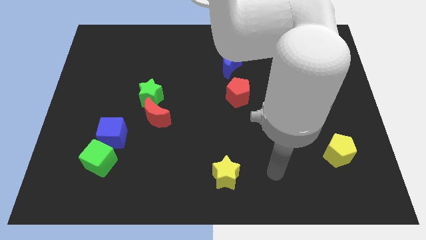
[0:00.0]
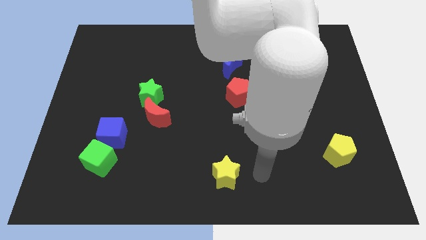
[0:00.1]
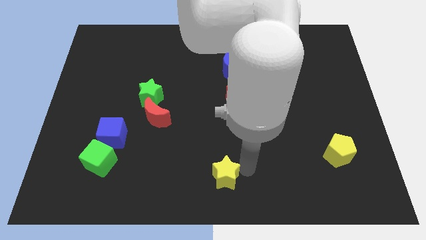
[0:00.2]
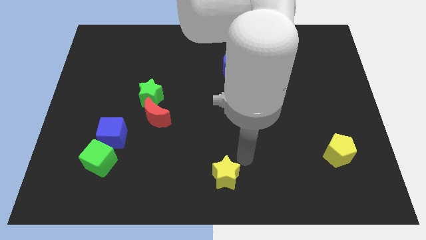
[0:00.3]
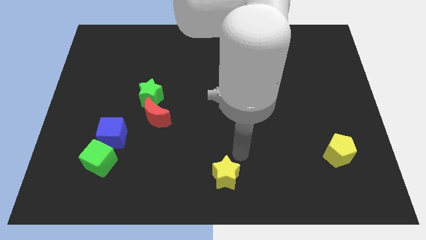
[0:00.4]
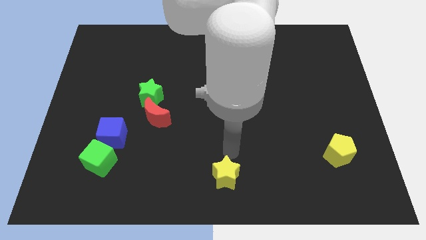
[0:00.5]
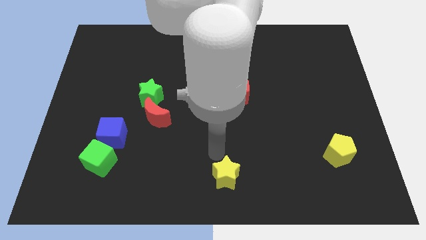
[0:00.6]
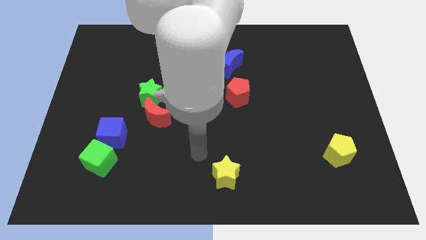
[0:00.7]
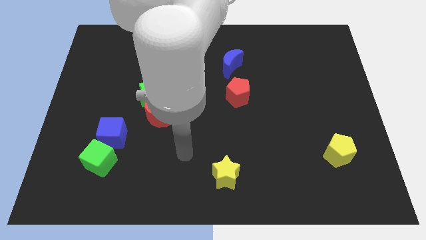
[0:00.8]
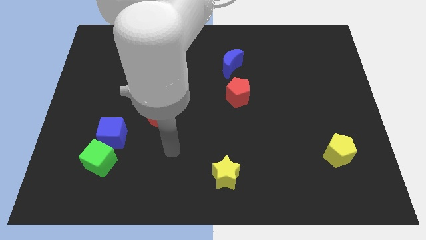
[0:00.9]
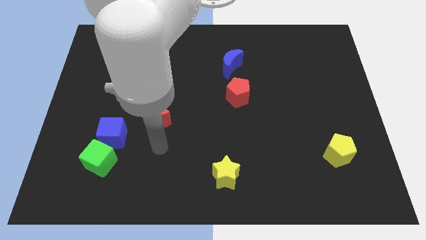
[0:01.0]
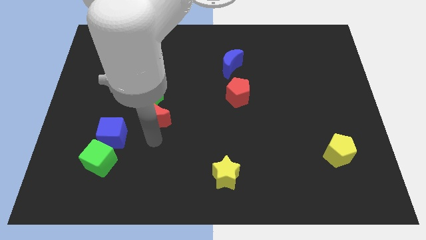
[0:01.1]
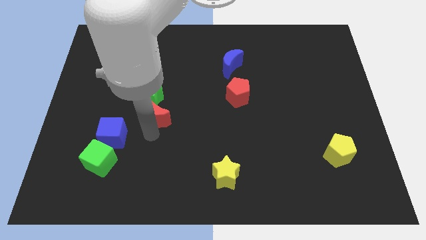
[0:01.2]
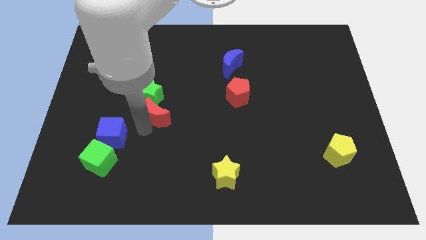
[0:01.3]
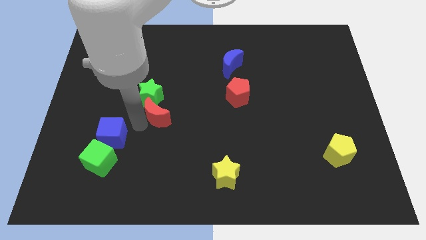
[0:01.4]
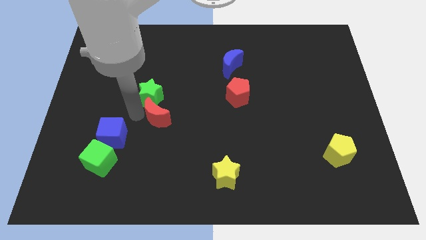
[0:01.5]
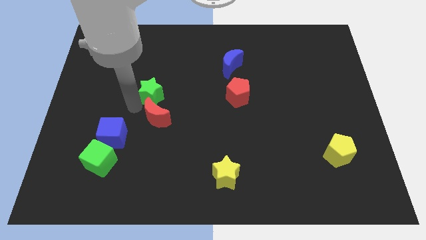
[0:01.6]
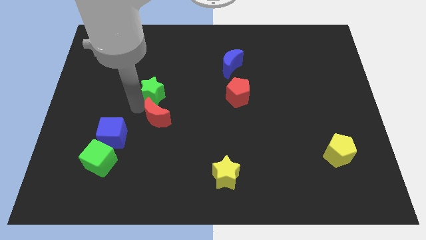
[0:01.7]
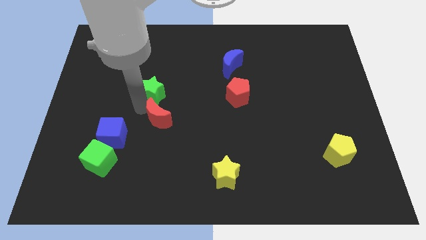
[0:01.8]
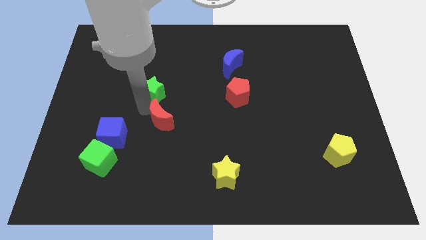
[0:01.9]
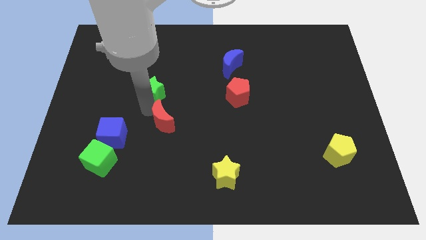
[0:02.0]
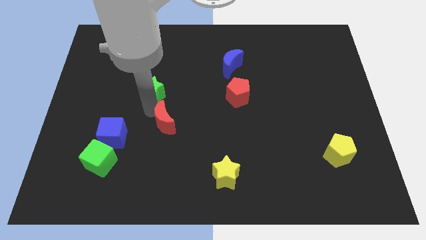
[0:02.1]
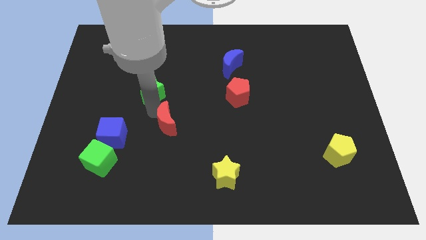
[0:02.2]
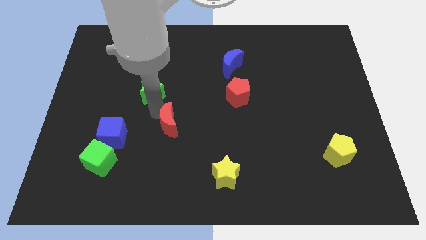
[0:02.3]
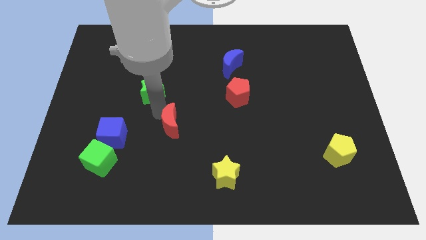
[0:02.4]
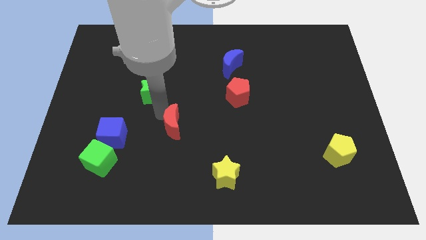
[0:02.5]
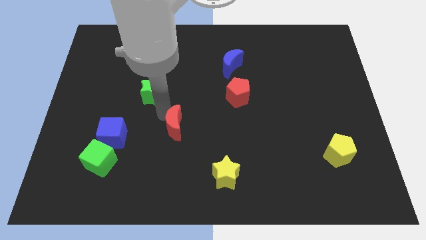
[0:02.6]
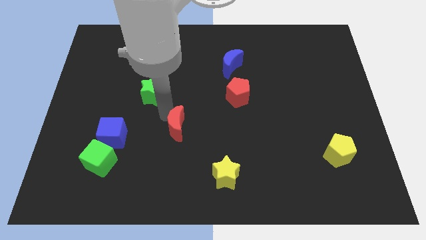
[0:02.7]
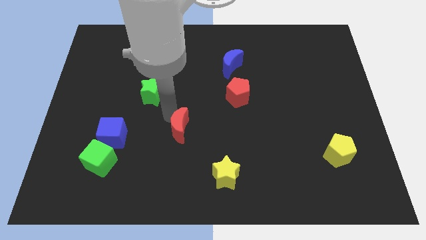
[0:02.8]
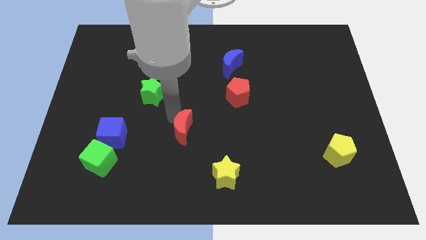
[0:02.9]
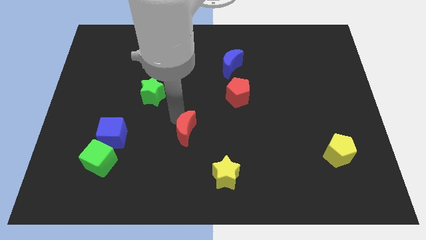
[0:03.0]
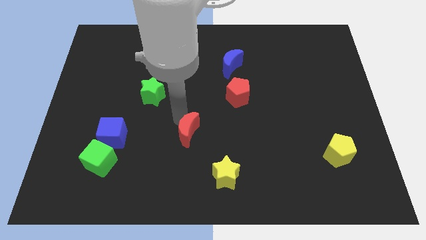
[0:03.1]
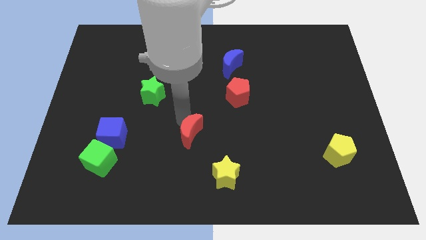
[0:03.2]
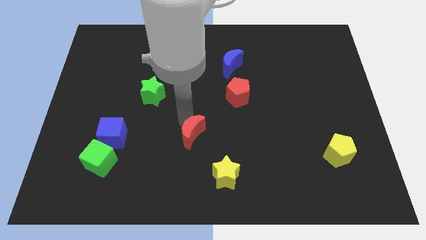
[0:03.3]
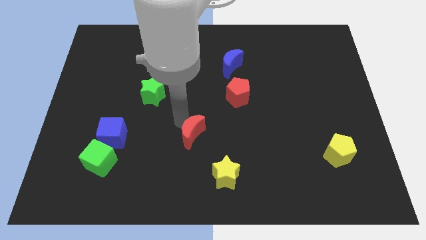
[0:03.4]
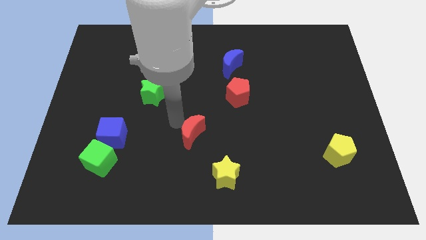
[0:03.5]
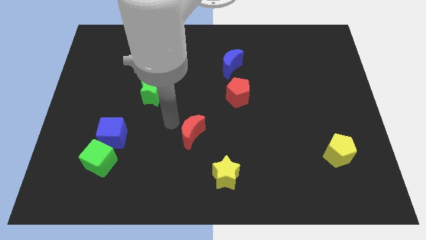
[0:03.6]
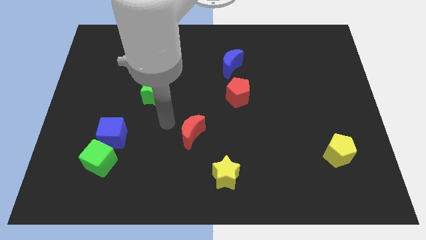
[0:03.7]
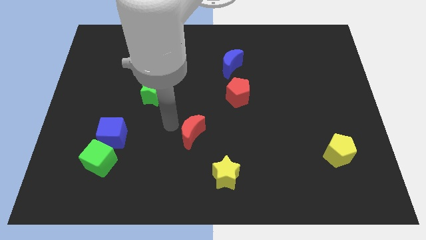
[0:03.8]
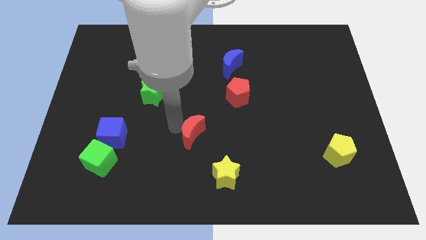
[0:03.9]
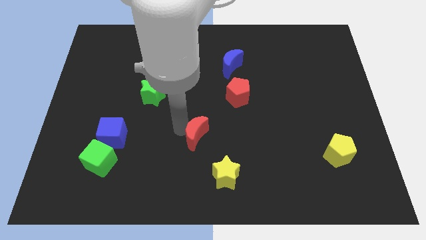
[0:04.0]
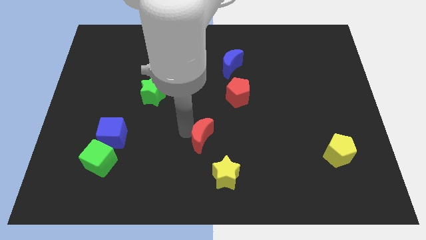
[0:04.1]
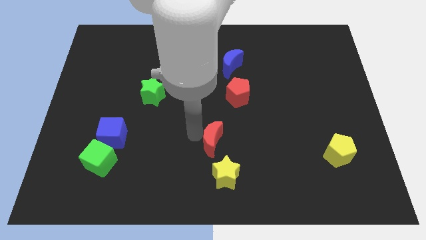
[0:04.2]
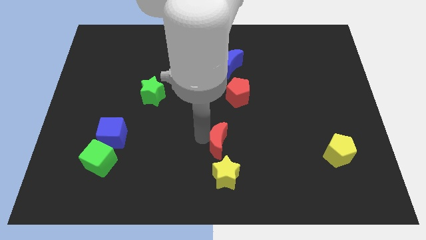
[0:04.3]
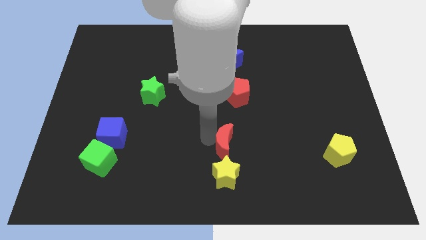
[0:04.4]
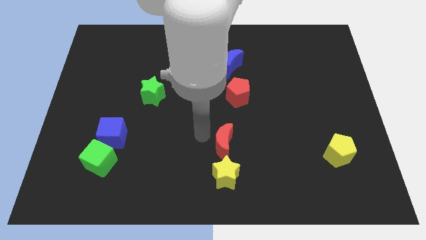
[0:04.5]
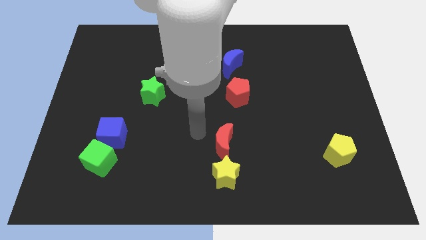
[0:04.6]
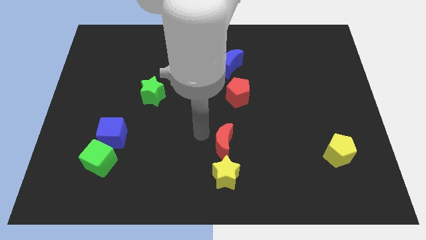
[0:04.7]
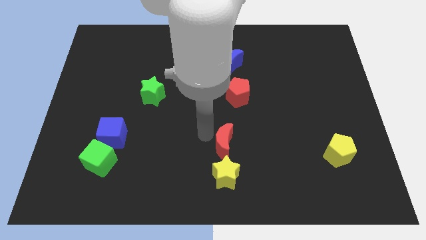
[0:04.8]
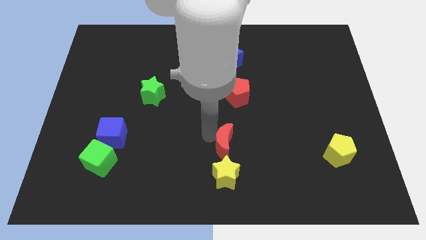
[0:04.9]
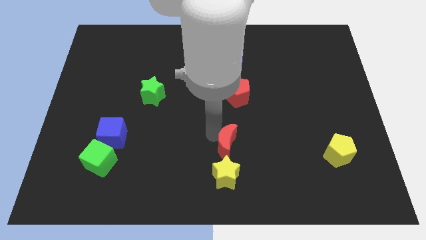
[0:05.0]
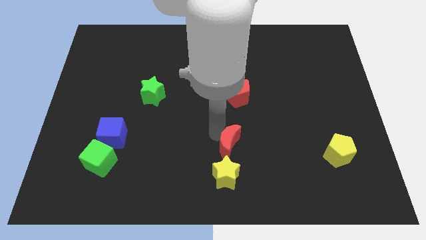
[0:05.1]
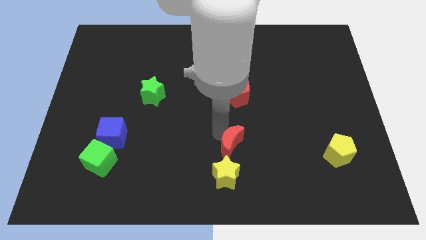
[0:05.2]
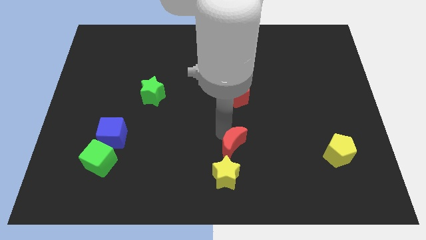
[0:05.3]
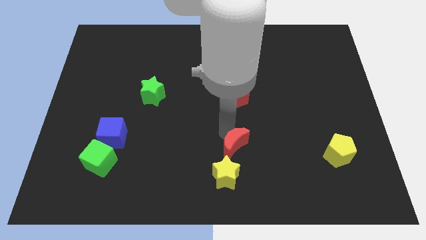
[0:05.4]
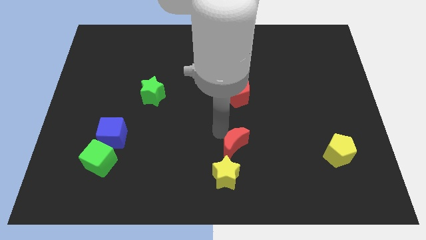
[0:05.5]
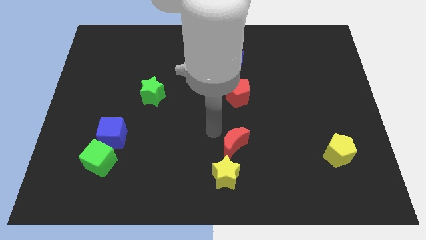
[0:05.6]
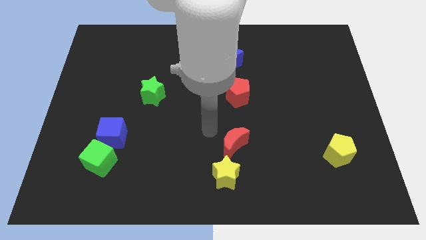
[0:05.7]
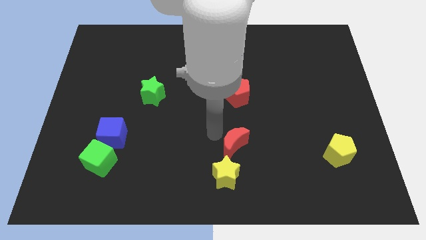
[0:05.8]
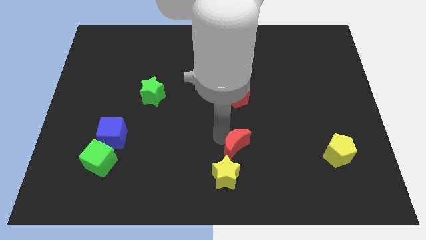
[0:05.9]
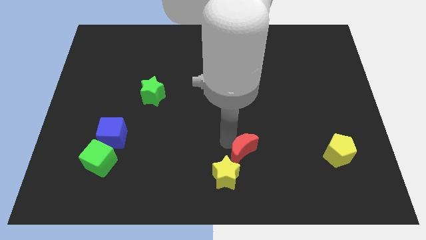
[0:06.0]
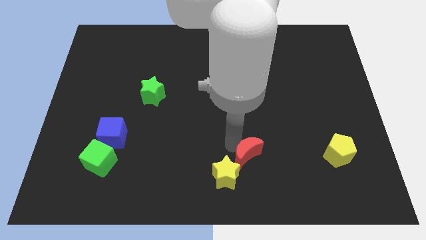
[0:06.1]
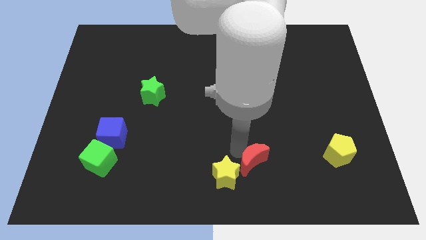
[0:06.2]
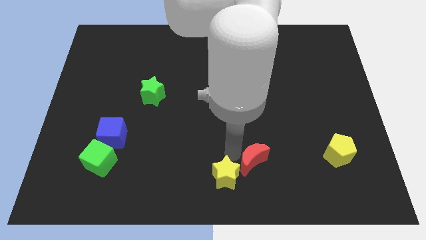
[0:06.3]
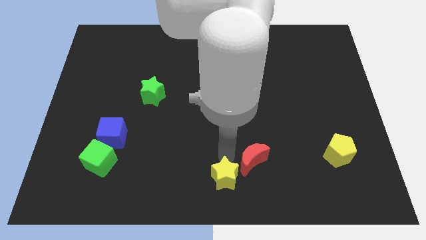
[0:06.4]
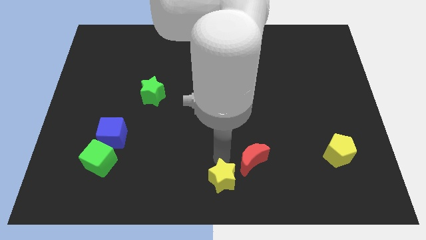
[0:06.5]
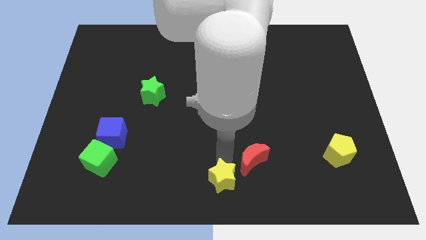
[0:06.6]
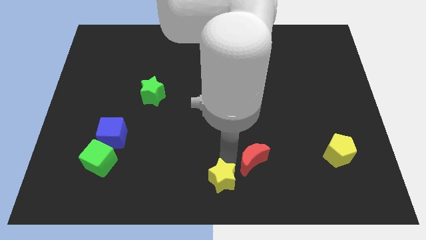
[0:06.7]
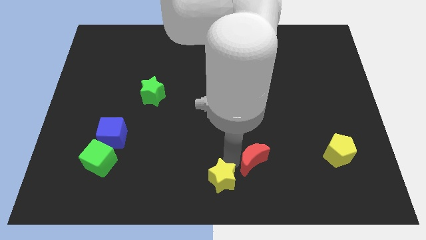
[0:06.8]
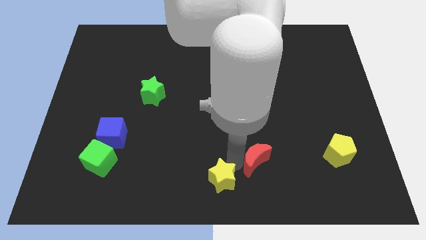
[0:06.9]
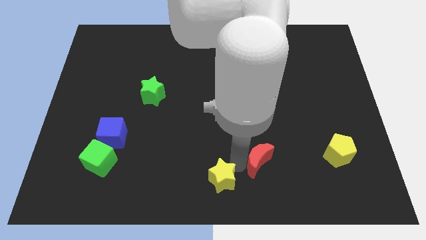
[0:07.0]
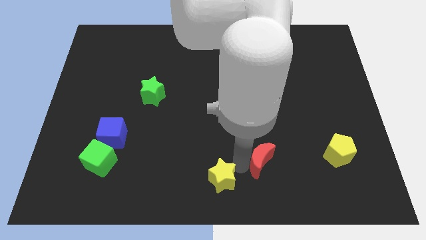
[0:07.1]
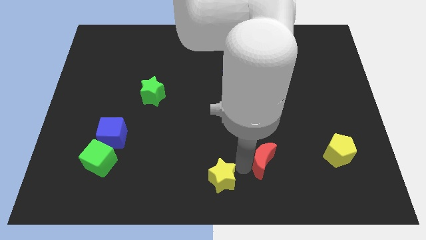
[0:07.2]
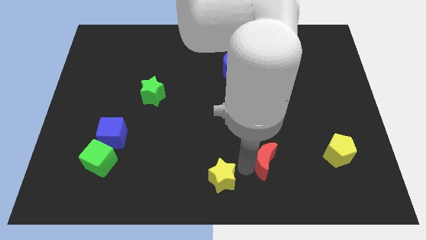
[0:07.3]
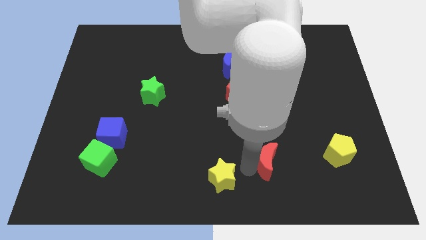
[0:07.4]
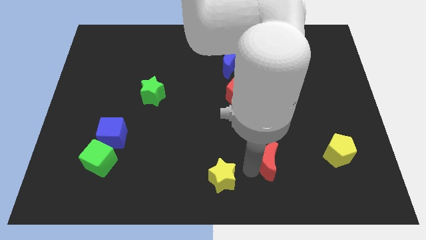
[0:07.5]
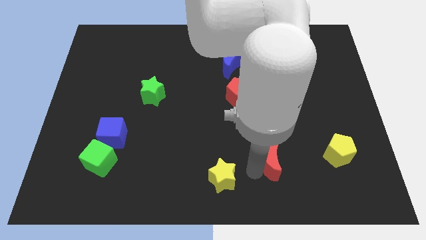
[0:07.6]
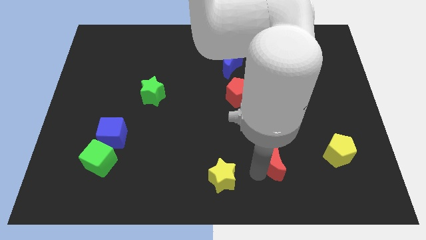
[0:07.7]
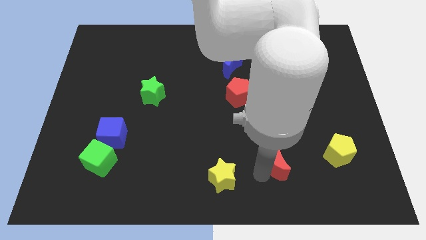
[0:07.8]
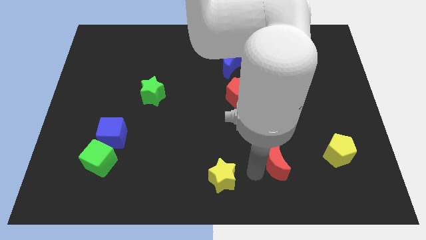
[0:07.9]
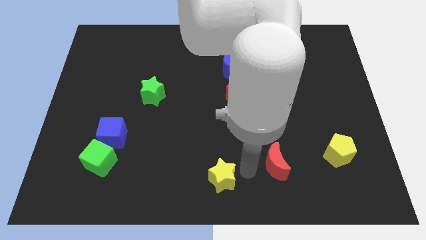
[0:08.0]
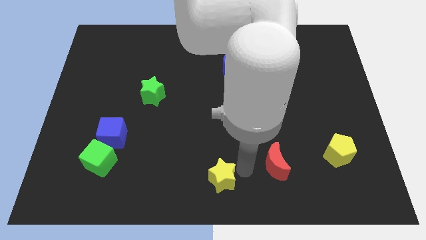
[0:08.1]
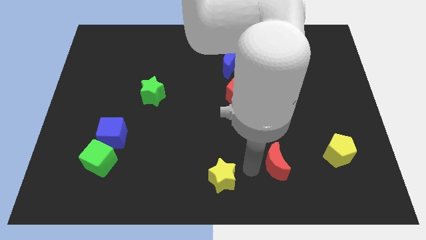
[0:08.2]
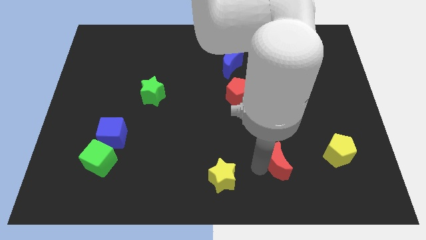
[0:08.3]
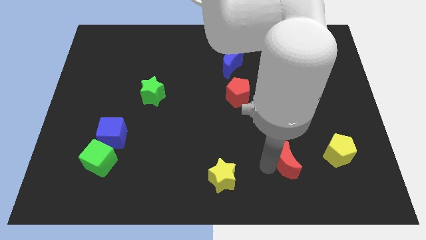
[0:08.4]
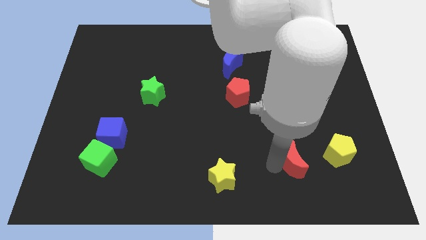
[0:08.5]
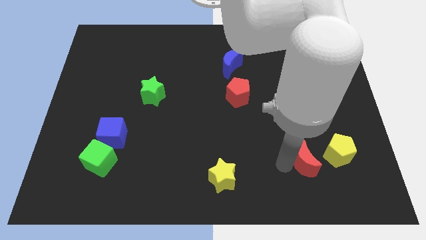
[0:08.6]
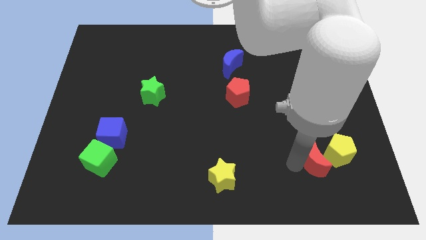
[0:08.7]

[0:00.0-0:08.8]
slide the red moon close to the yellow pentagon
